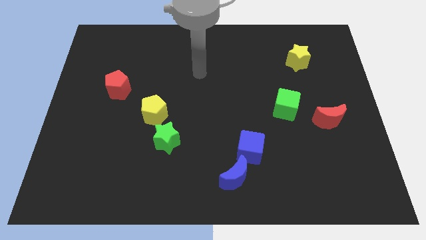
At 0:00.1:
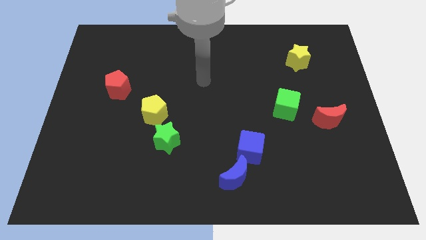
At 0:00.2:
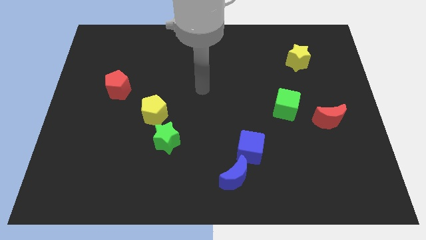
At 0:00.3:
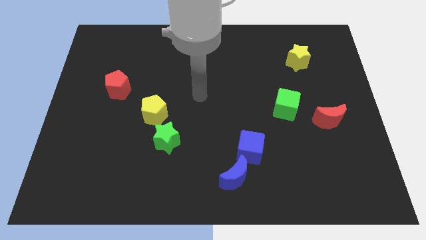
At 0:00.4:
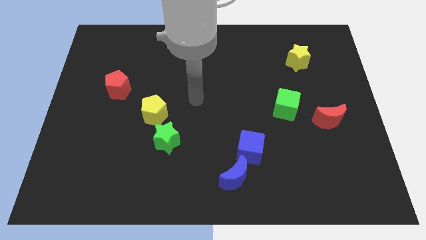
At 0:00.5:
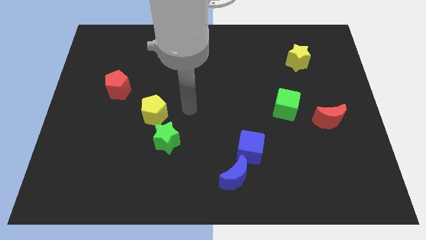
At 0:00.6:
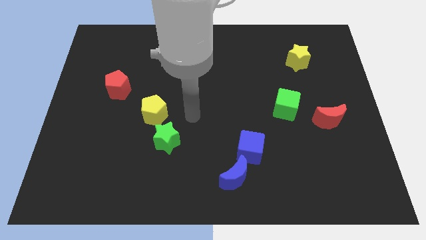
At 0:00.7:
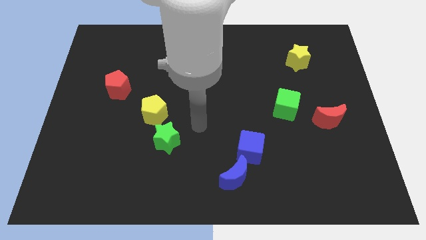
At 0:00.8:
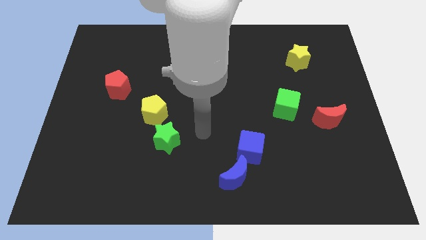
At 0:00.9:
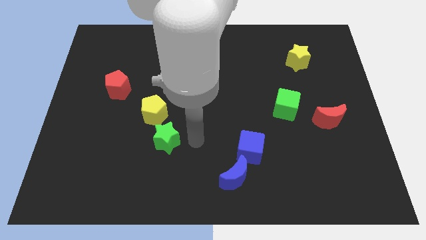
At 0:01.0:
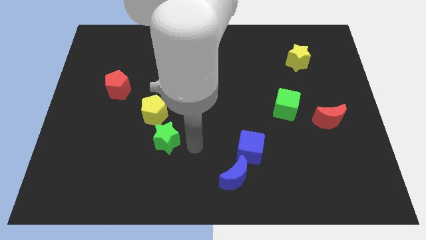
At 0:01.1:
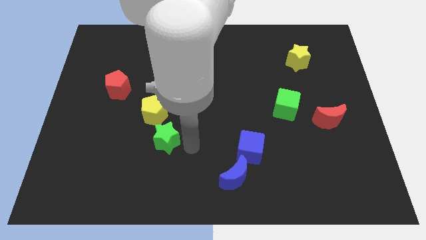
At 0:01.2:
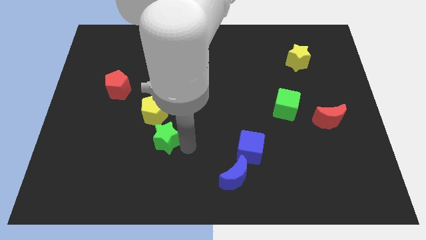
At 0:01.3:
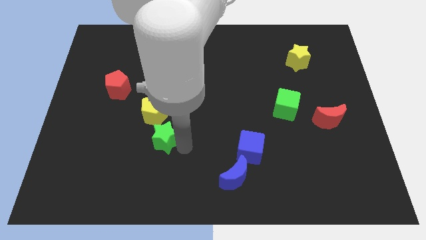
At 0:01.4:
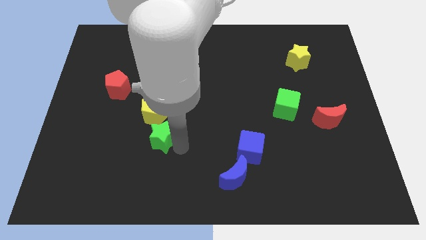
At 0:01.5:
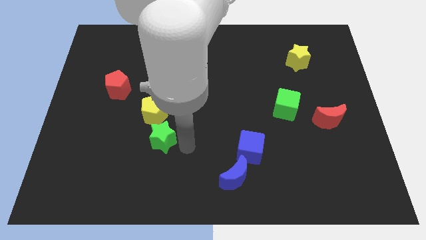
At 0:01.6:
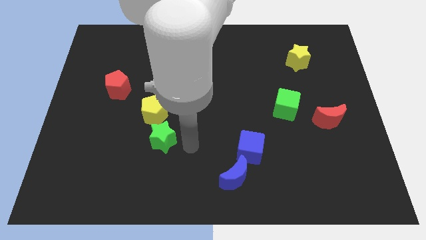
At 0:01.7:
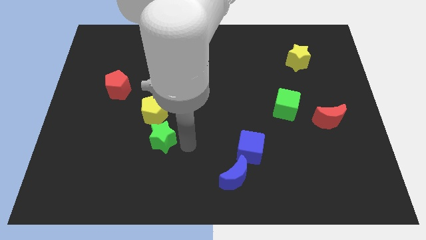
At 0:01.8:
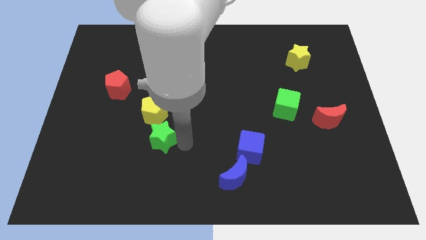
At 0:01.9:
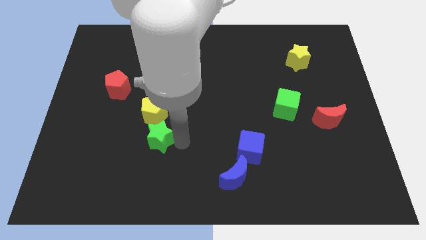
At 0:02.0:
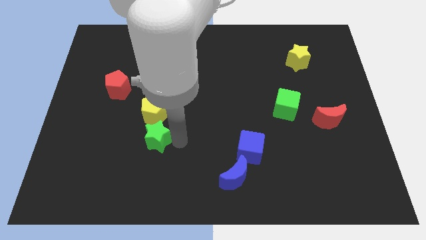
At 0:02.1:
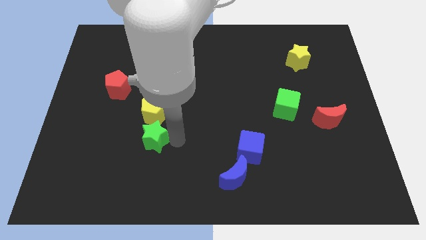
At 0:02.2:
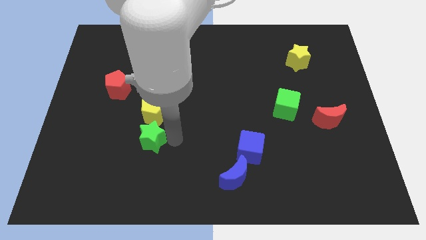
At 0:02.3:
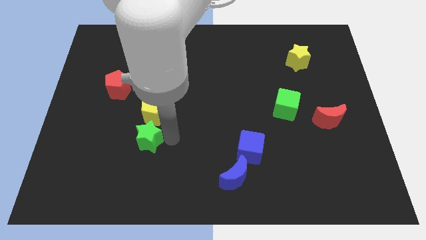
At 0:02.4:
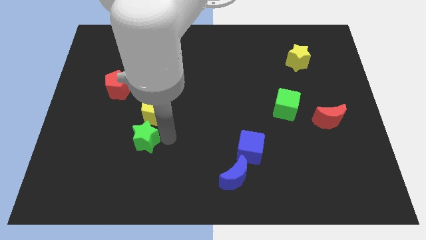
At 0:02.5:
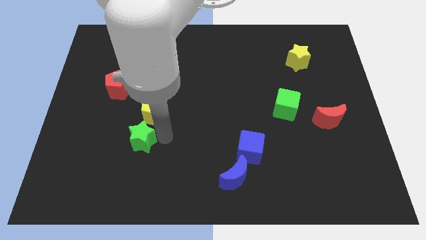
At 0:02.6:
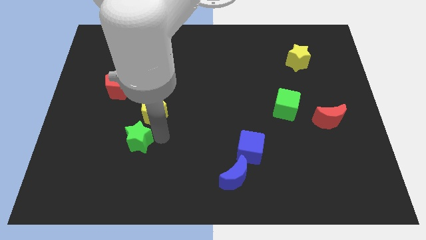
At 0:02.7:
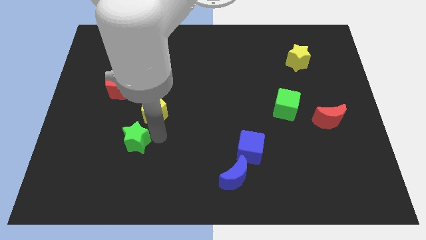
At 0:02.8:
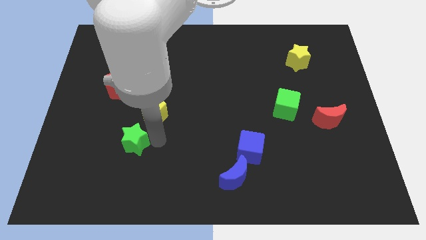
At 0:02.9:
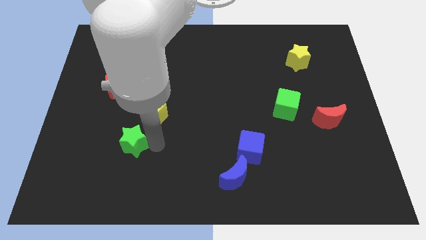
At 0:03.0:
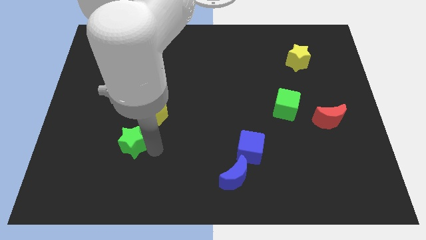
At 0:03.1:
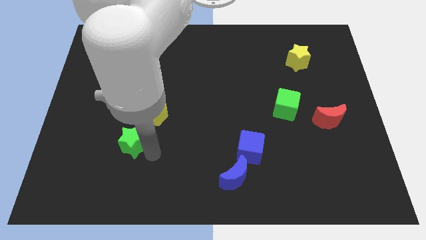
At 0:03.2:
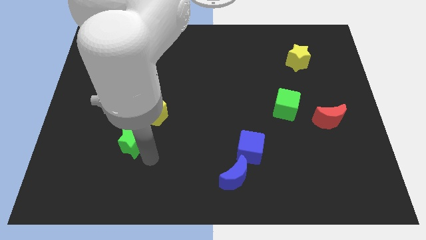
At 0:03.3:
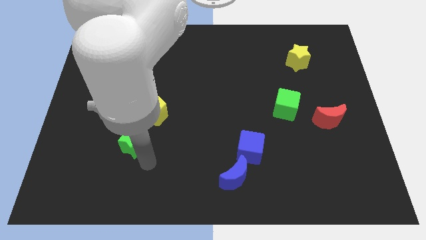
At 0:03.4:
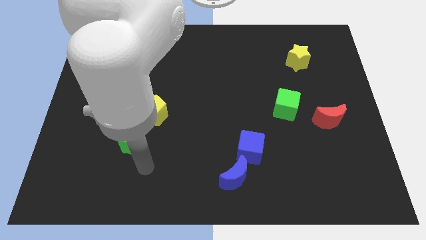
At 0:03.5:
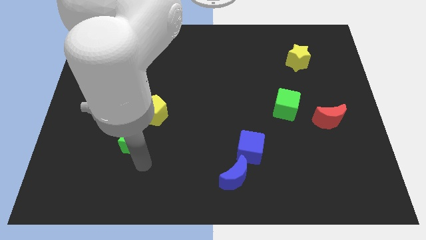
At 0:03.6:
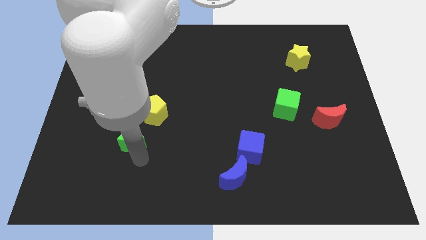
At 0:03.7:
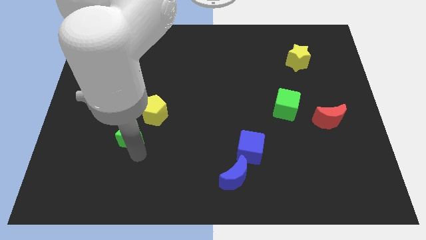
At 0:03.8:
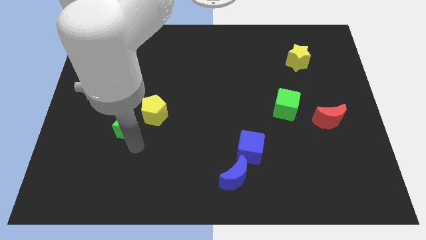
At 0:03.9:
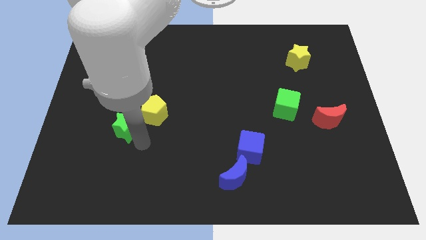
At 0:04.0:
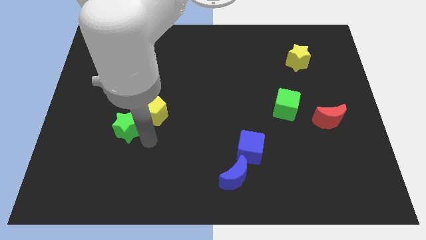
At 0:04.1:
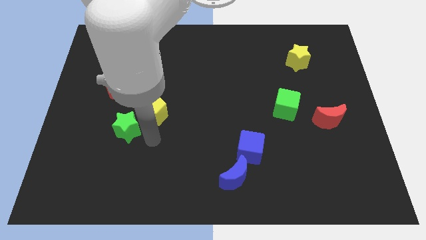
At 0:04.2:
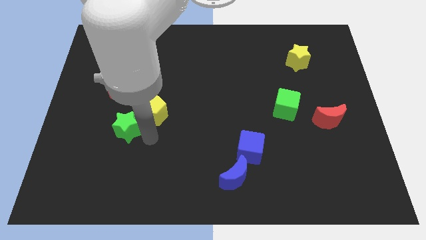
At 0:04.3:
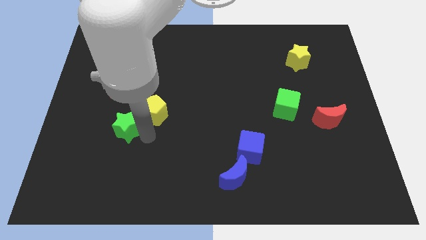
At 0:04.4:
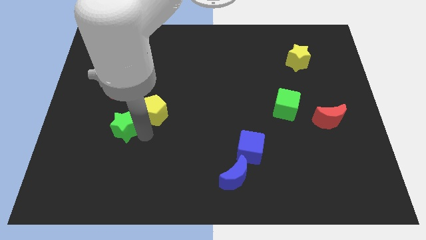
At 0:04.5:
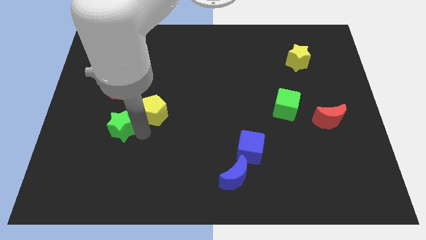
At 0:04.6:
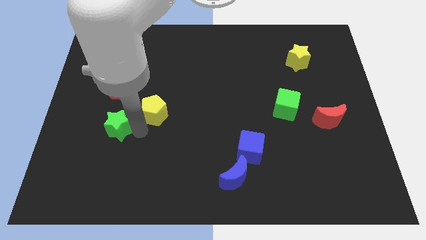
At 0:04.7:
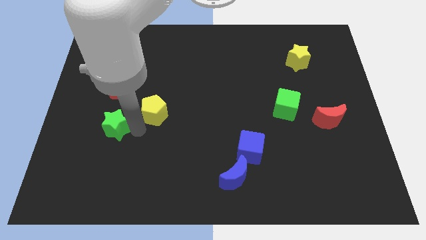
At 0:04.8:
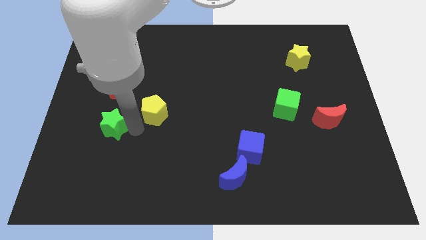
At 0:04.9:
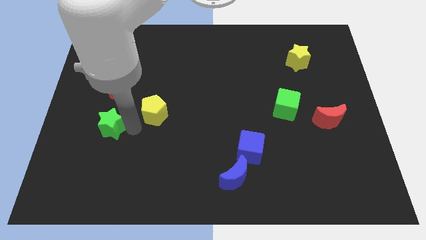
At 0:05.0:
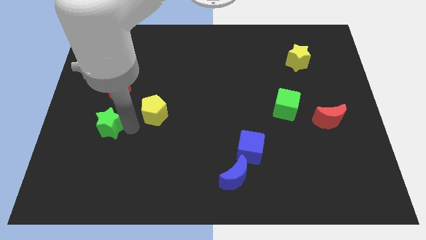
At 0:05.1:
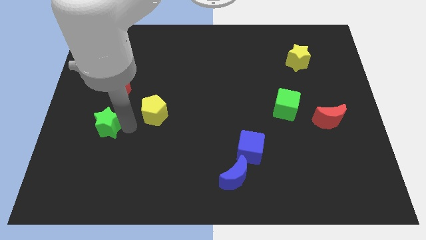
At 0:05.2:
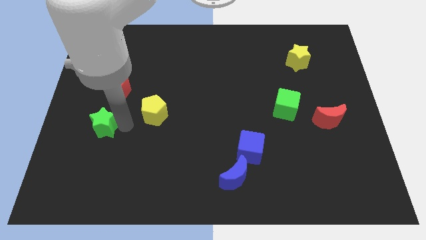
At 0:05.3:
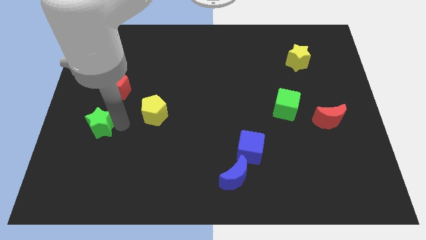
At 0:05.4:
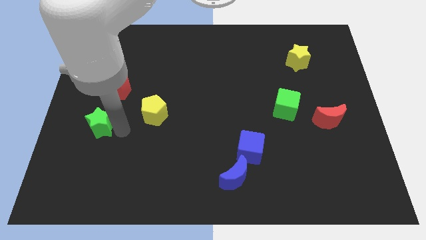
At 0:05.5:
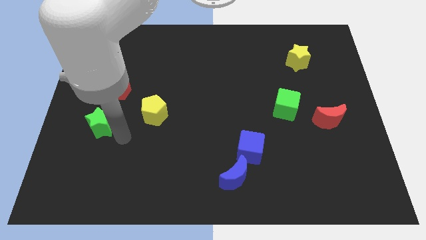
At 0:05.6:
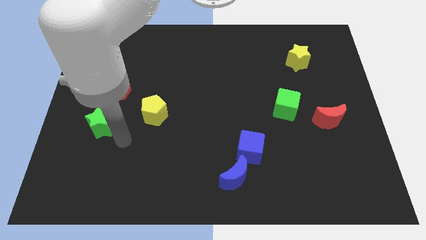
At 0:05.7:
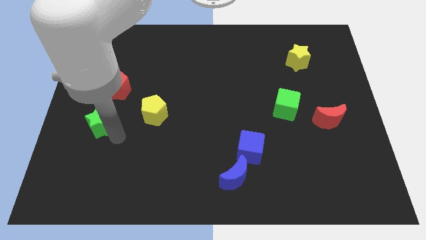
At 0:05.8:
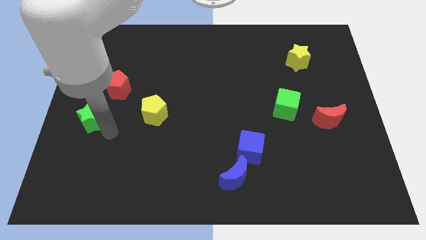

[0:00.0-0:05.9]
slide the green star to the center left
